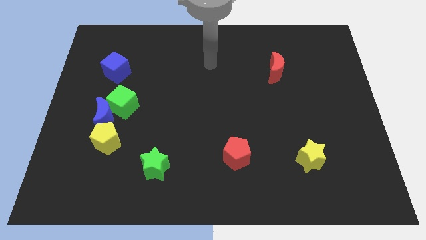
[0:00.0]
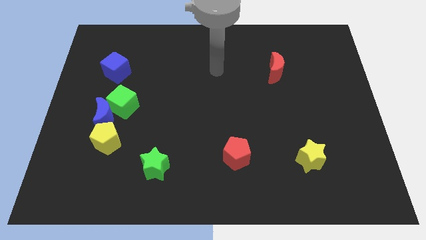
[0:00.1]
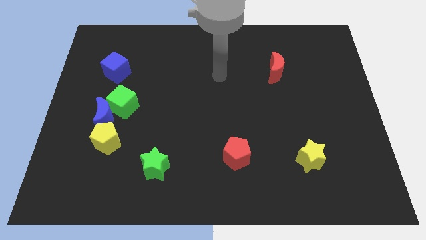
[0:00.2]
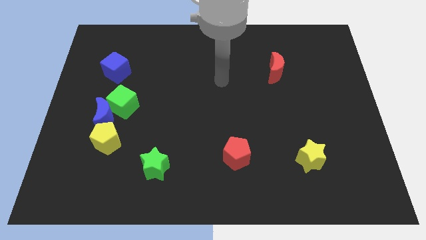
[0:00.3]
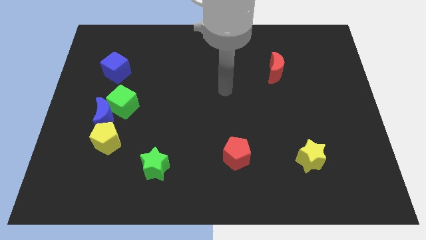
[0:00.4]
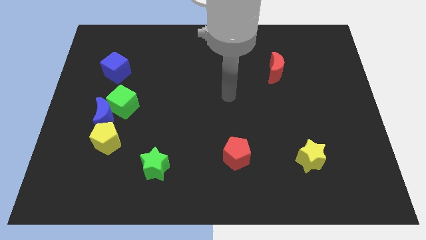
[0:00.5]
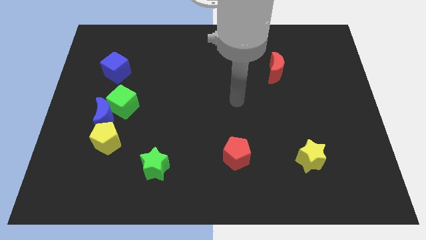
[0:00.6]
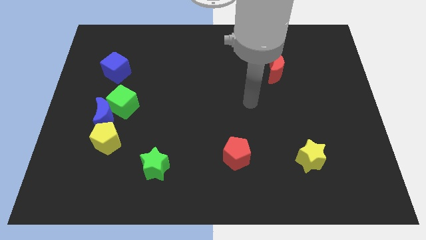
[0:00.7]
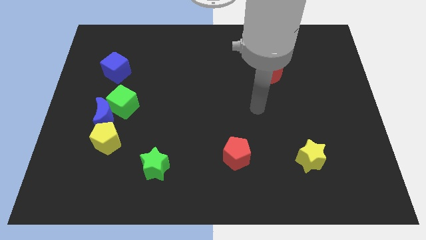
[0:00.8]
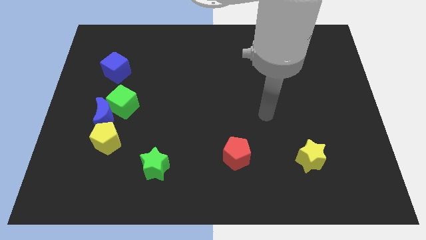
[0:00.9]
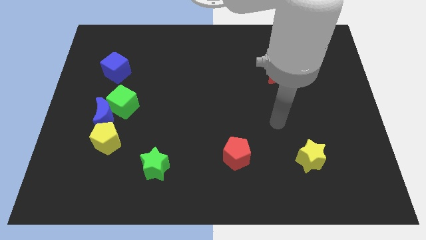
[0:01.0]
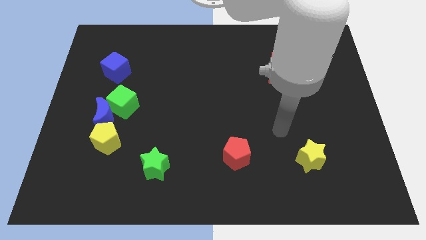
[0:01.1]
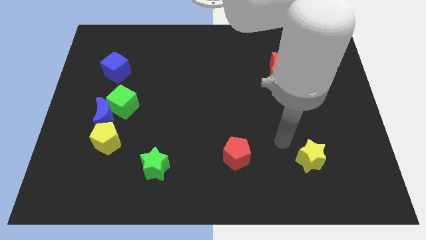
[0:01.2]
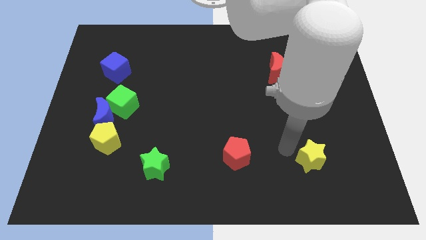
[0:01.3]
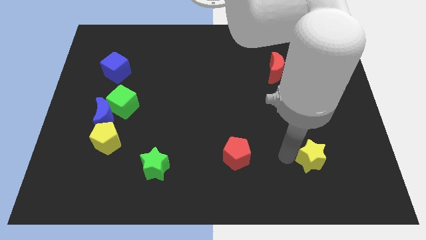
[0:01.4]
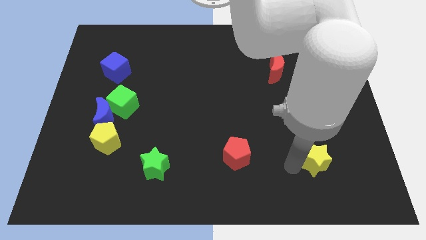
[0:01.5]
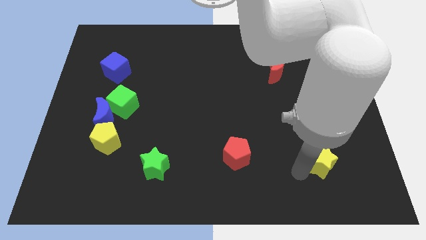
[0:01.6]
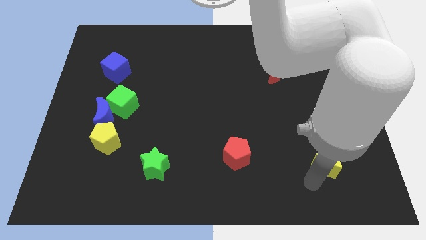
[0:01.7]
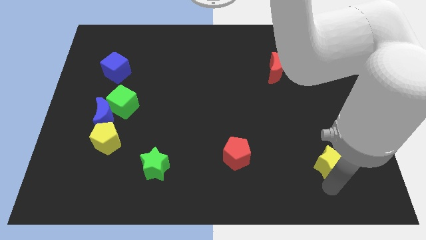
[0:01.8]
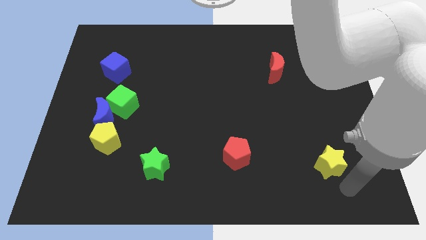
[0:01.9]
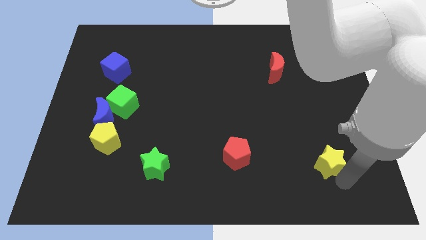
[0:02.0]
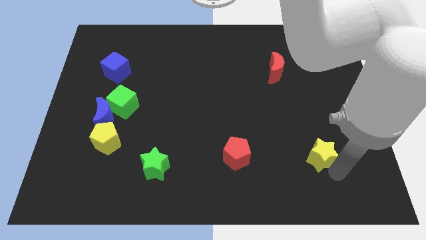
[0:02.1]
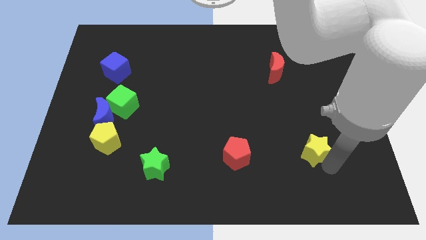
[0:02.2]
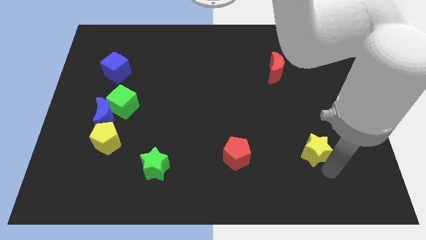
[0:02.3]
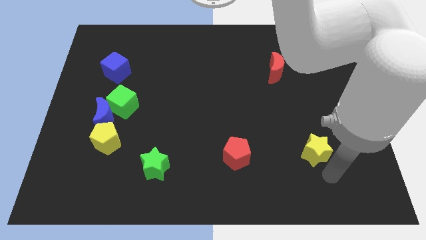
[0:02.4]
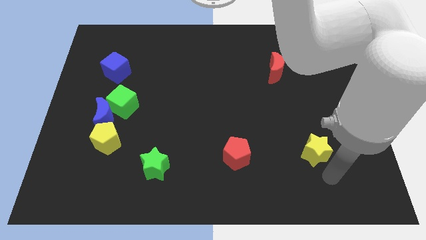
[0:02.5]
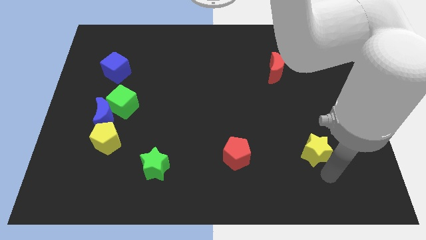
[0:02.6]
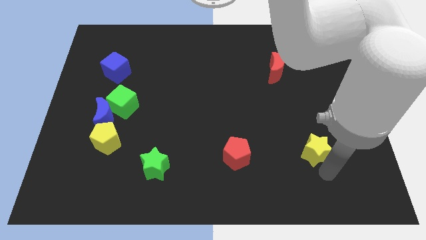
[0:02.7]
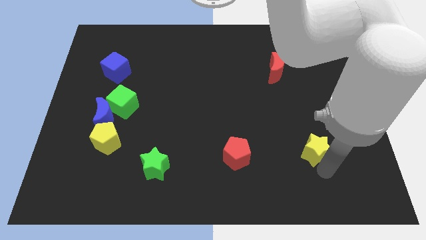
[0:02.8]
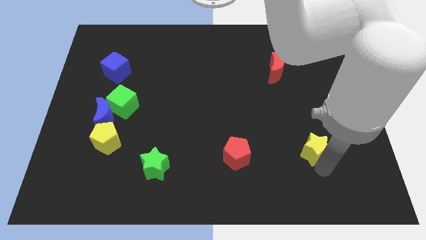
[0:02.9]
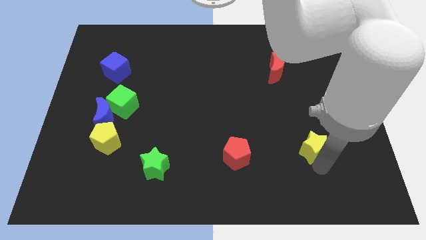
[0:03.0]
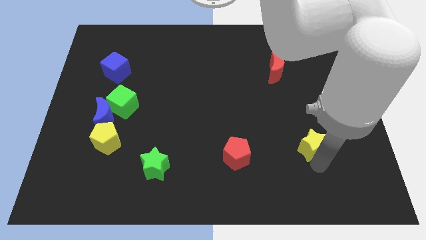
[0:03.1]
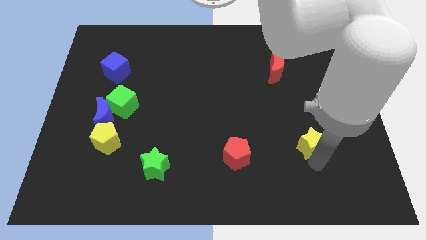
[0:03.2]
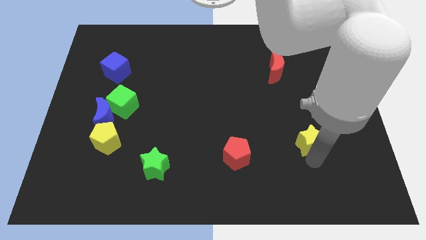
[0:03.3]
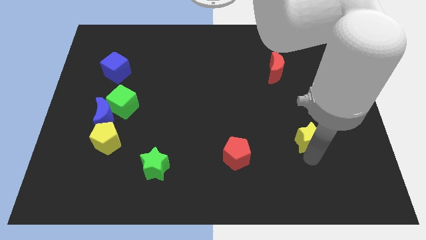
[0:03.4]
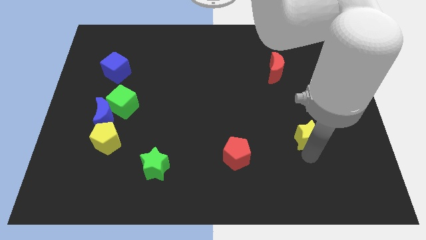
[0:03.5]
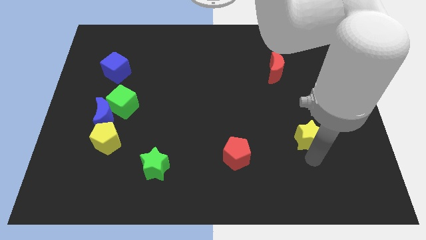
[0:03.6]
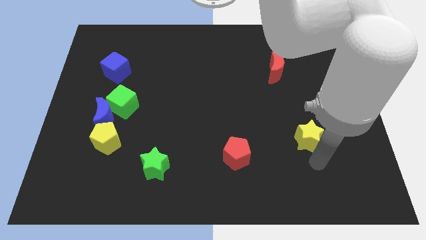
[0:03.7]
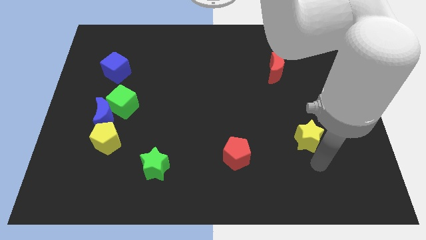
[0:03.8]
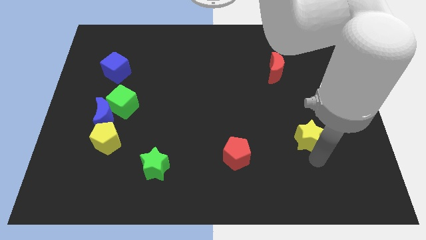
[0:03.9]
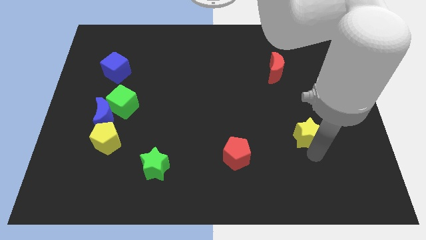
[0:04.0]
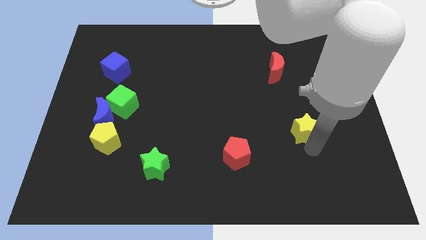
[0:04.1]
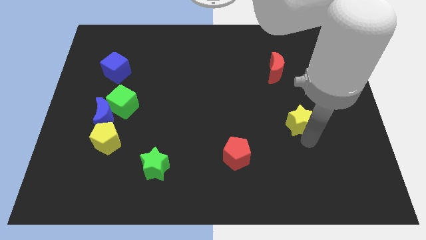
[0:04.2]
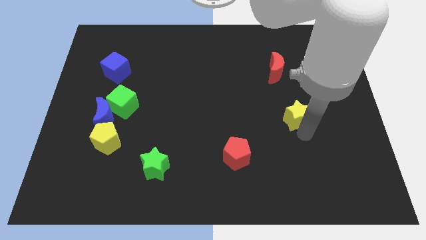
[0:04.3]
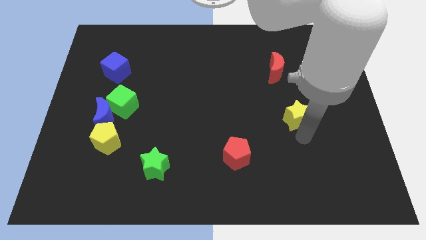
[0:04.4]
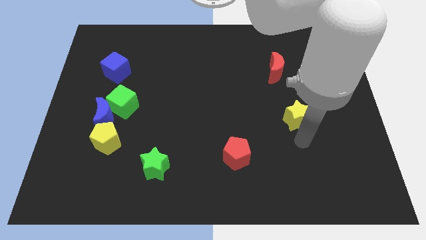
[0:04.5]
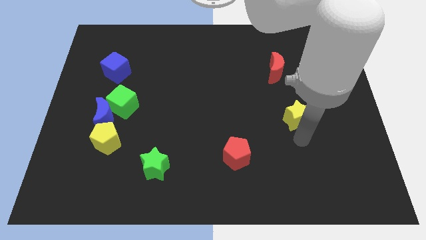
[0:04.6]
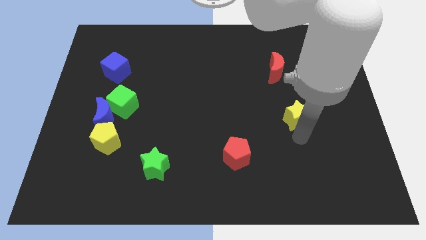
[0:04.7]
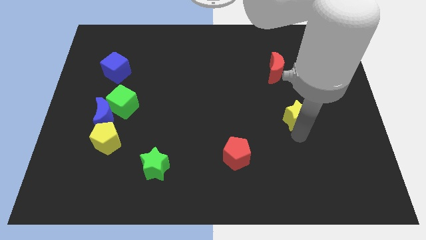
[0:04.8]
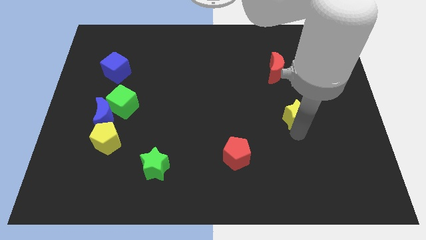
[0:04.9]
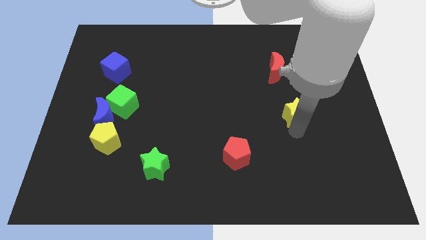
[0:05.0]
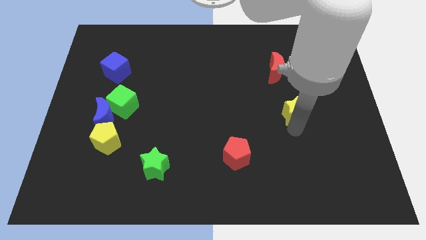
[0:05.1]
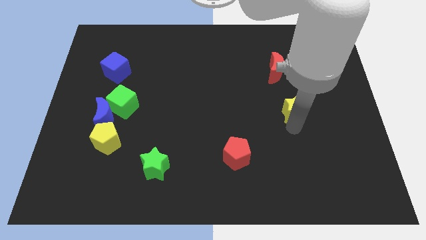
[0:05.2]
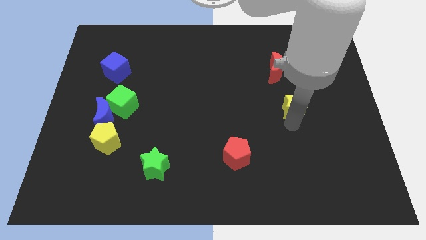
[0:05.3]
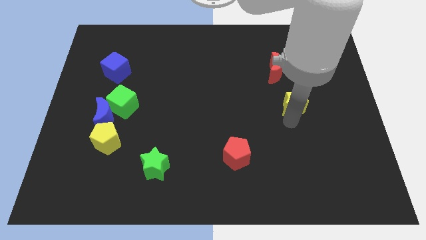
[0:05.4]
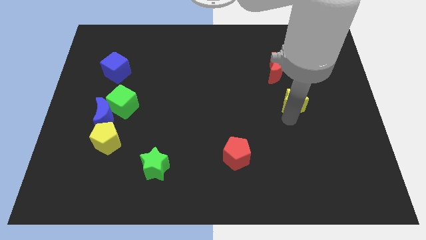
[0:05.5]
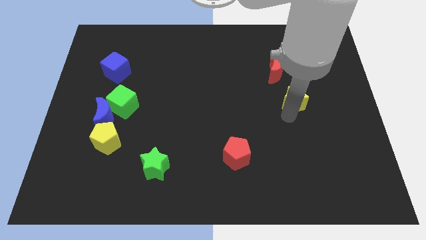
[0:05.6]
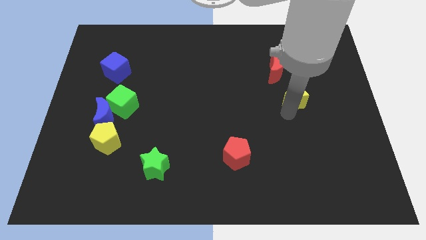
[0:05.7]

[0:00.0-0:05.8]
put the yellow star to the bottom right side of the red moon

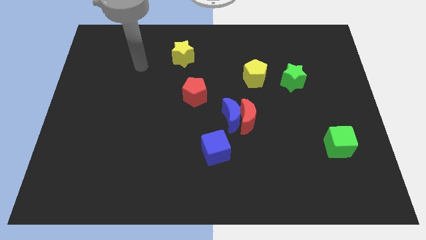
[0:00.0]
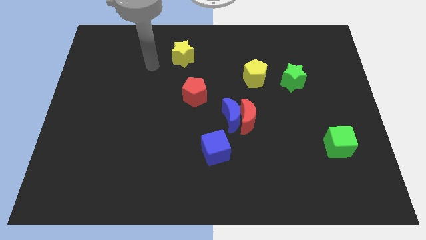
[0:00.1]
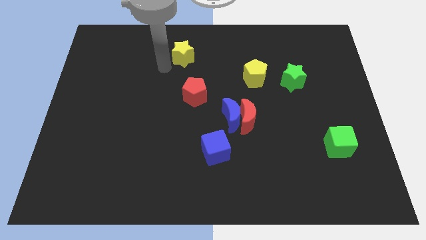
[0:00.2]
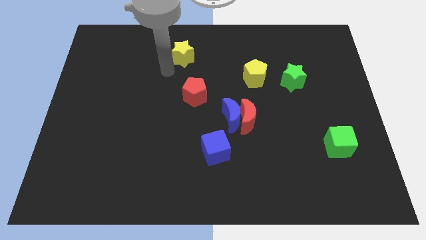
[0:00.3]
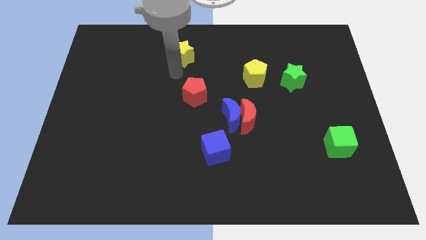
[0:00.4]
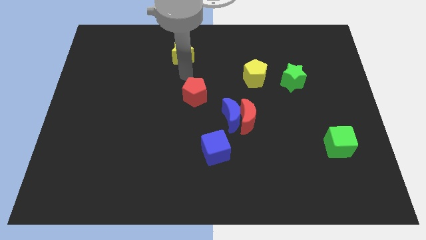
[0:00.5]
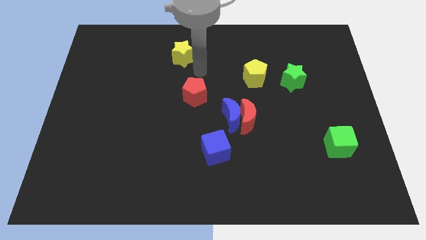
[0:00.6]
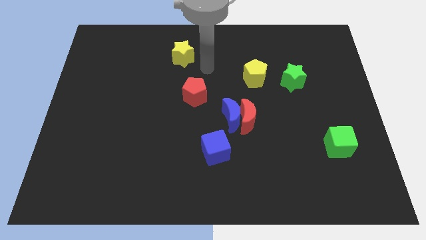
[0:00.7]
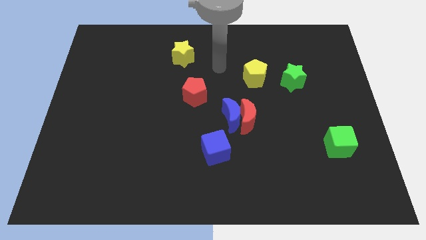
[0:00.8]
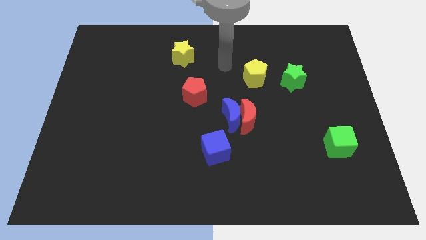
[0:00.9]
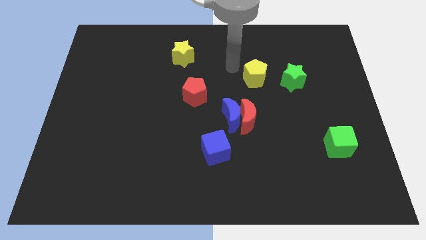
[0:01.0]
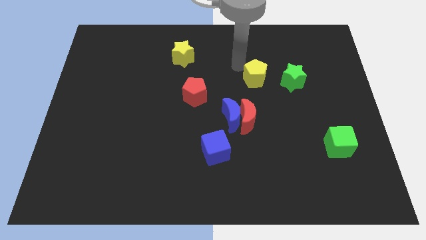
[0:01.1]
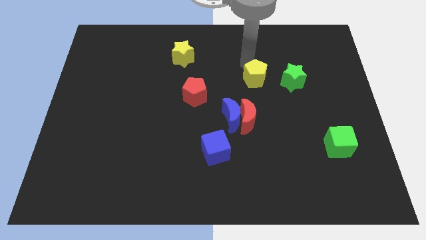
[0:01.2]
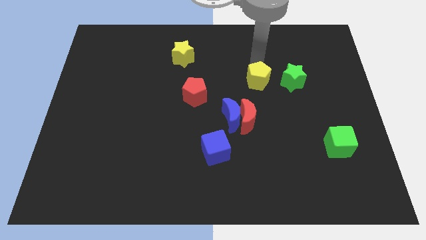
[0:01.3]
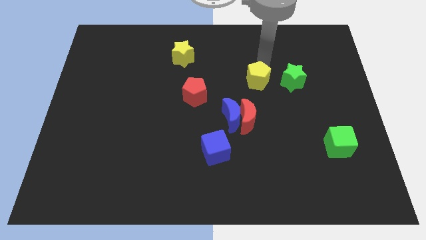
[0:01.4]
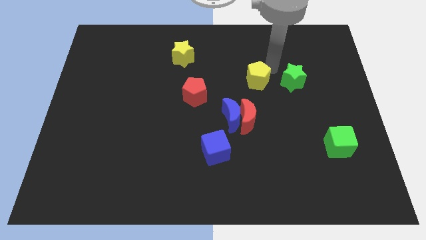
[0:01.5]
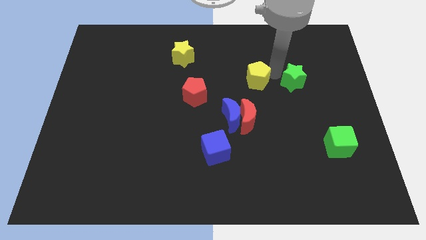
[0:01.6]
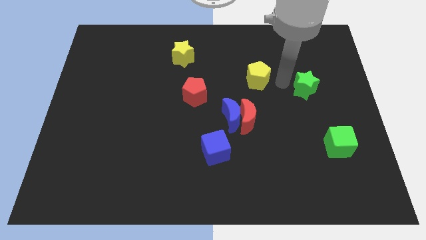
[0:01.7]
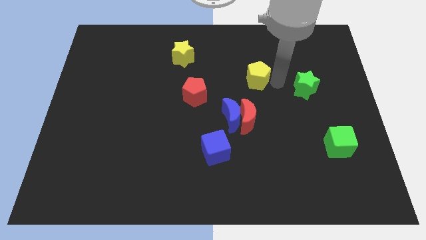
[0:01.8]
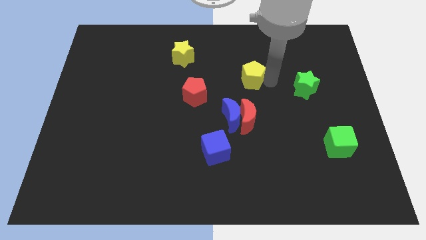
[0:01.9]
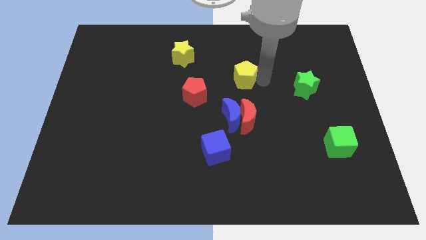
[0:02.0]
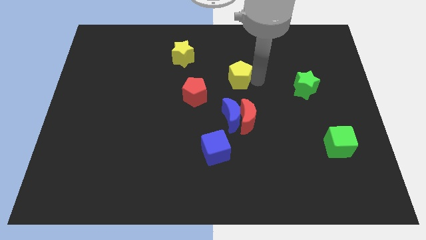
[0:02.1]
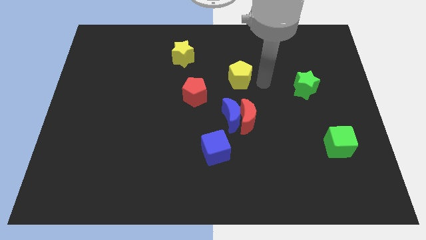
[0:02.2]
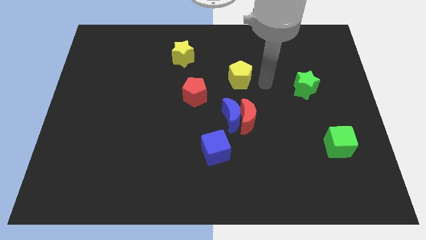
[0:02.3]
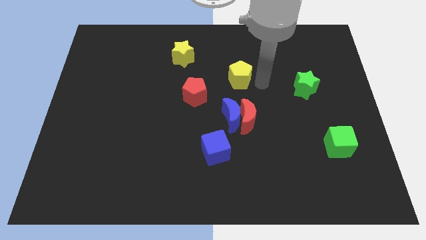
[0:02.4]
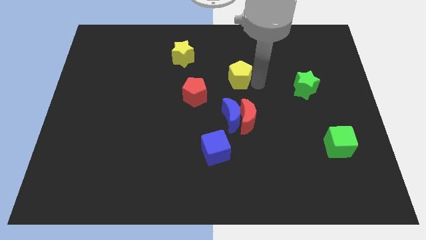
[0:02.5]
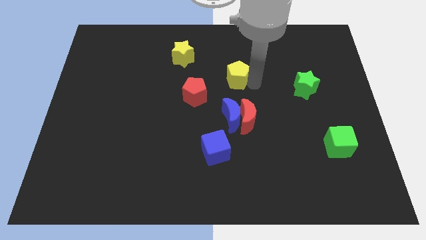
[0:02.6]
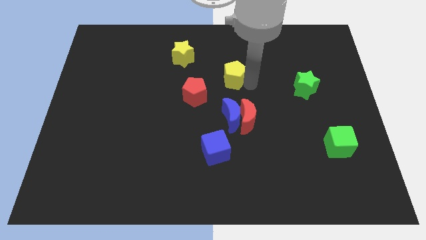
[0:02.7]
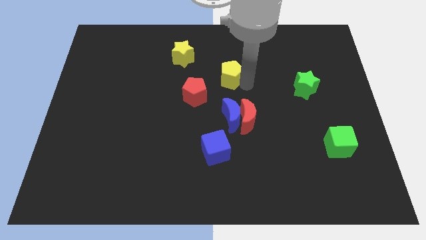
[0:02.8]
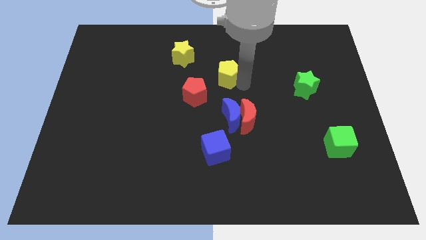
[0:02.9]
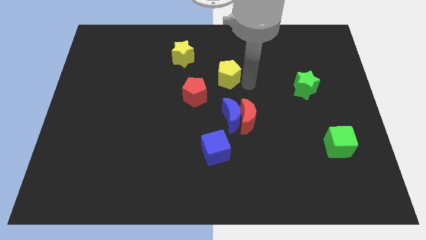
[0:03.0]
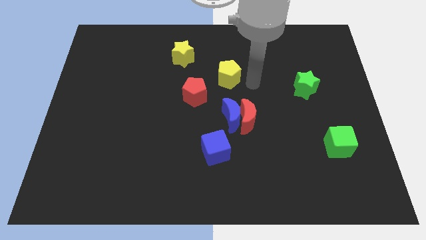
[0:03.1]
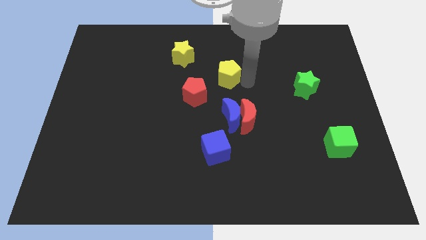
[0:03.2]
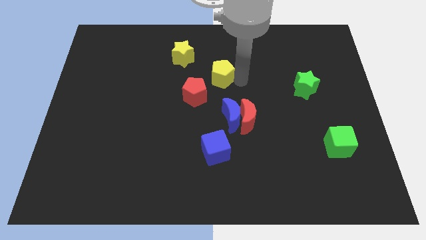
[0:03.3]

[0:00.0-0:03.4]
slide the yellow pentagon to the bottom right of the yellow star
